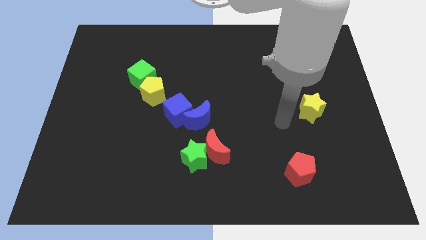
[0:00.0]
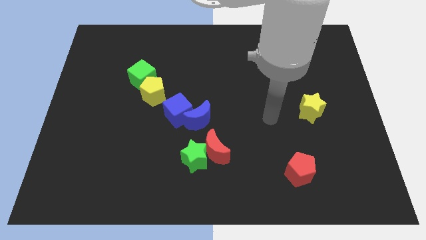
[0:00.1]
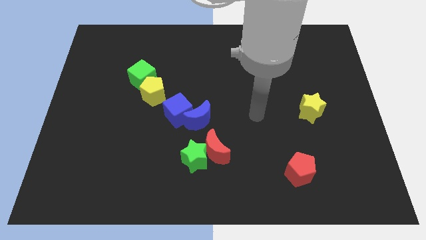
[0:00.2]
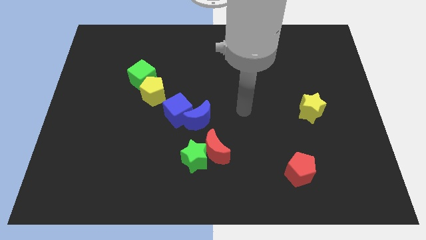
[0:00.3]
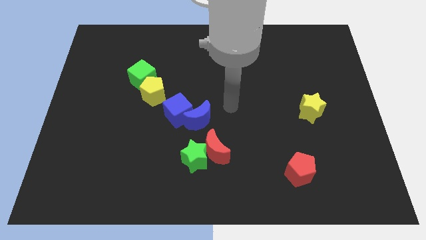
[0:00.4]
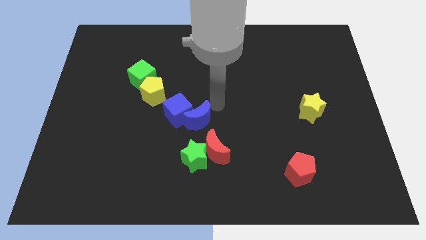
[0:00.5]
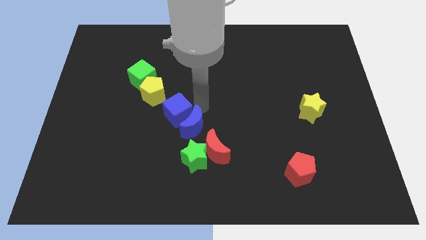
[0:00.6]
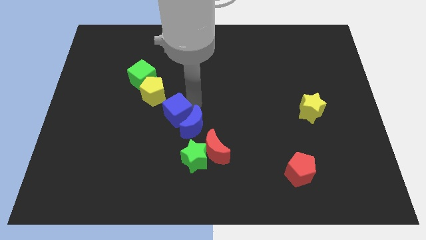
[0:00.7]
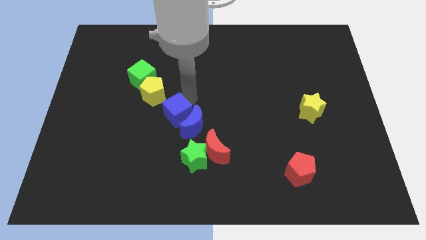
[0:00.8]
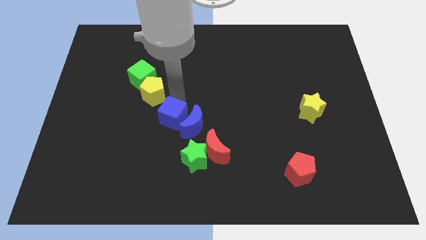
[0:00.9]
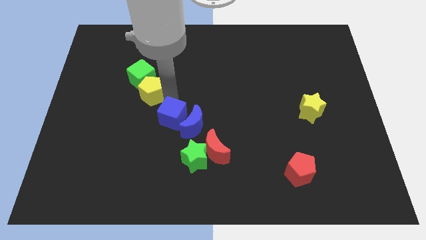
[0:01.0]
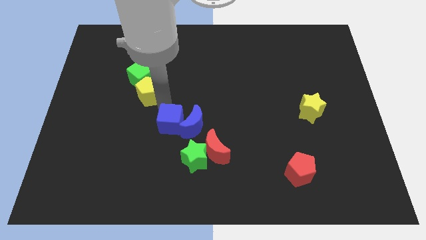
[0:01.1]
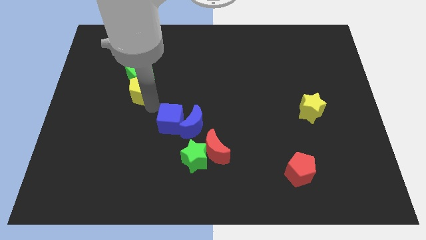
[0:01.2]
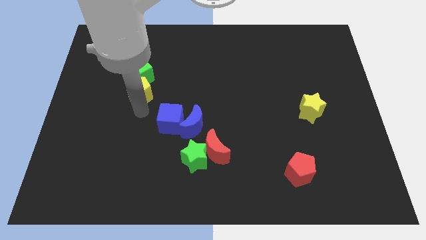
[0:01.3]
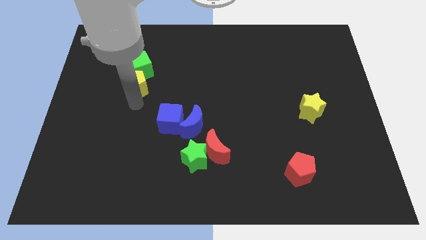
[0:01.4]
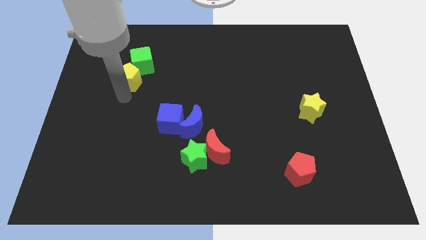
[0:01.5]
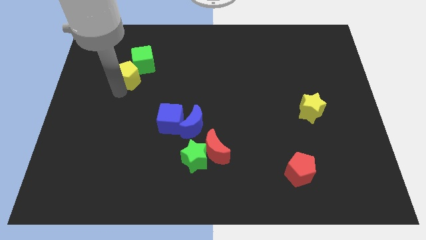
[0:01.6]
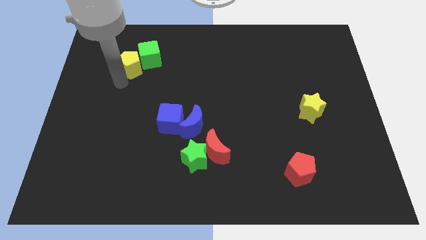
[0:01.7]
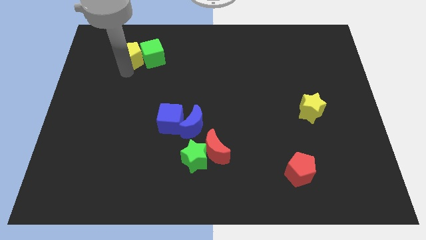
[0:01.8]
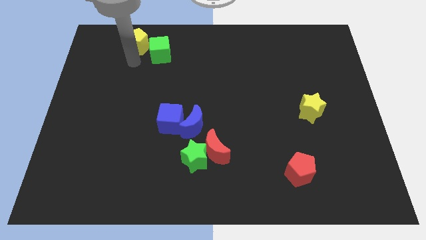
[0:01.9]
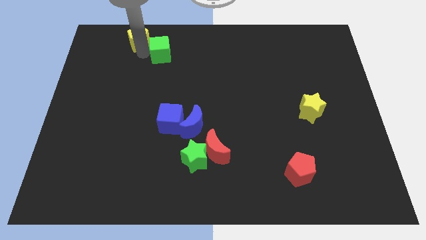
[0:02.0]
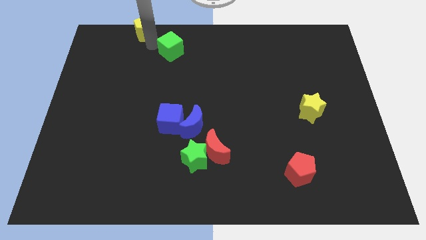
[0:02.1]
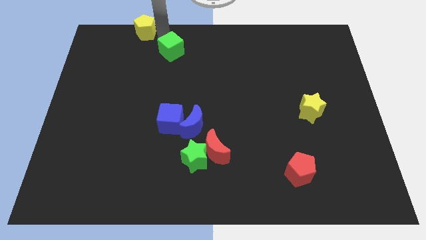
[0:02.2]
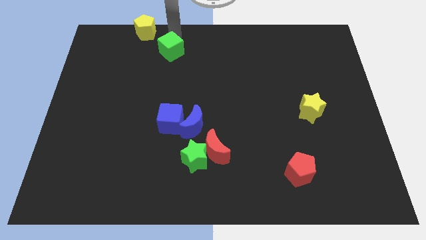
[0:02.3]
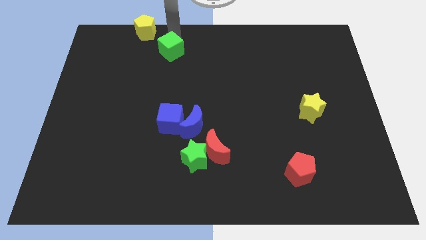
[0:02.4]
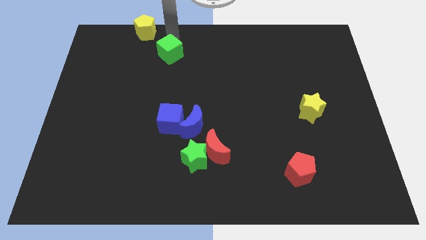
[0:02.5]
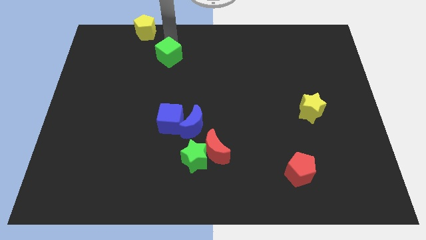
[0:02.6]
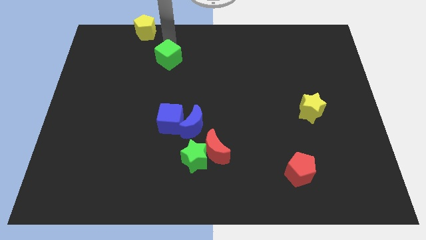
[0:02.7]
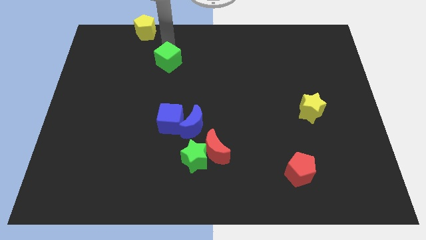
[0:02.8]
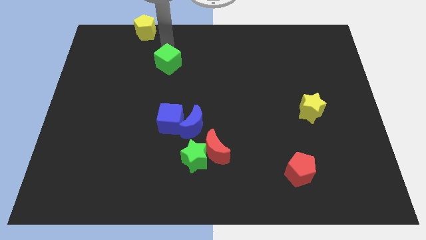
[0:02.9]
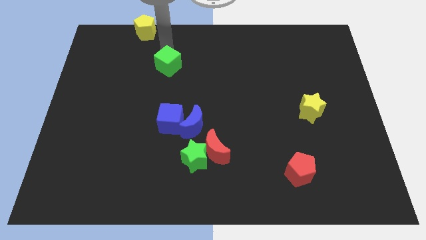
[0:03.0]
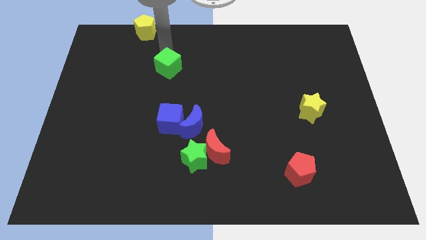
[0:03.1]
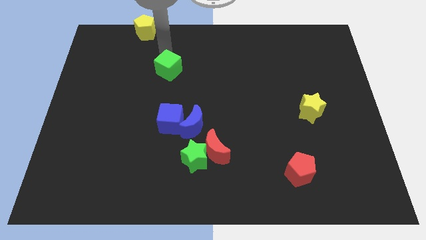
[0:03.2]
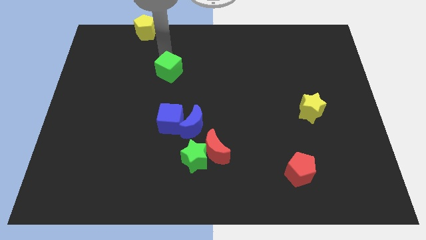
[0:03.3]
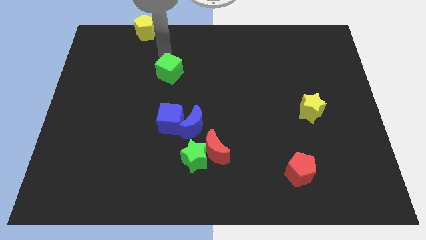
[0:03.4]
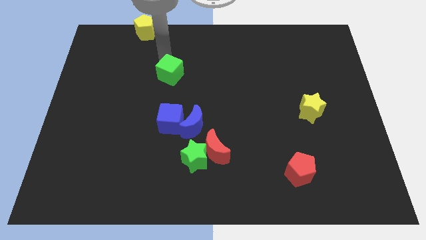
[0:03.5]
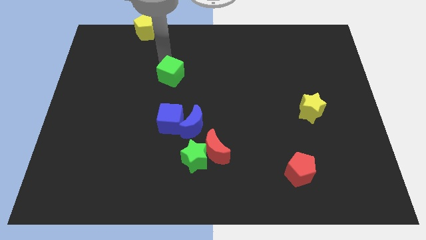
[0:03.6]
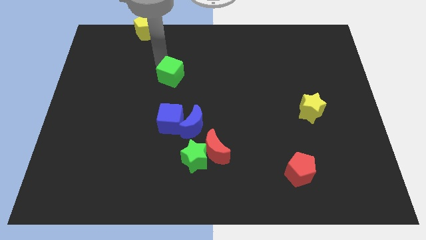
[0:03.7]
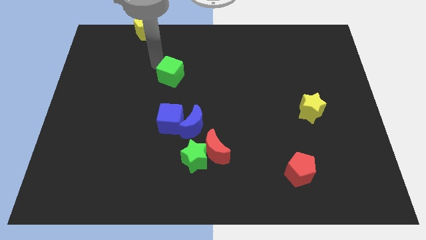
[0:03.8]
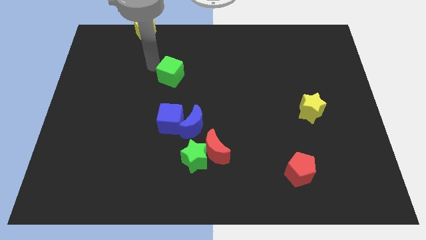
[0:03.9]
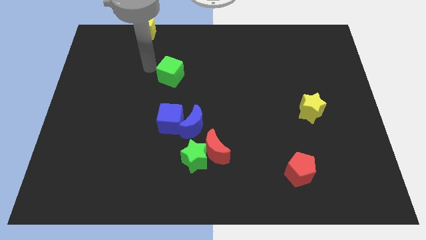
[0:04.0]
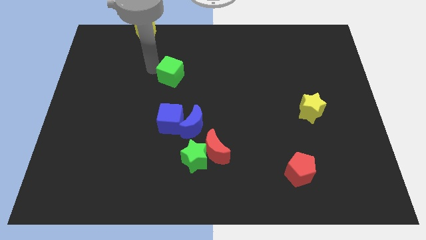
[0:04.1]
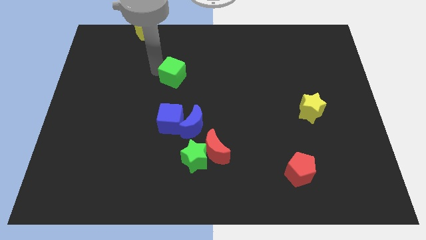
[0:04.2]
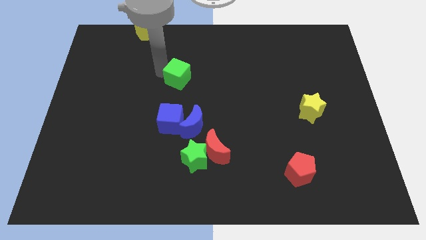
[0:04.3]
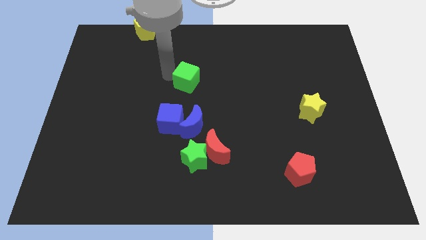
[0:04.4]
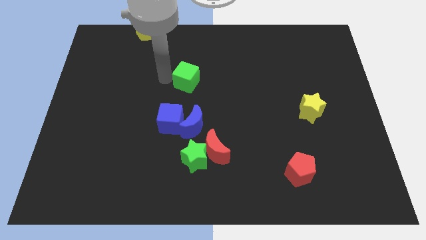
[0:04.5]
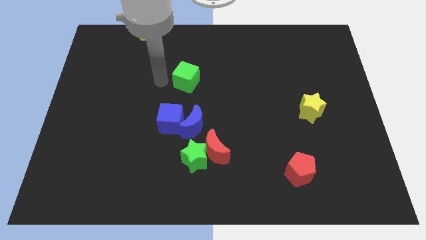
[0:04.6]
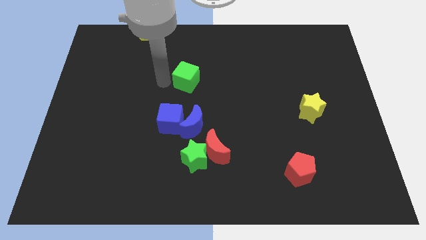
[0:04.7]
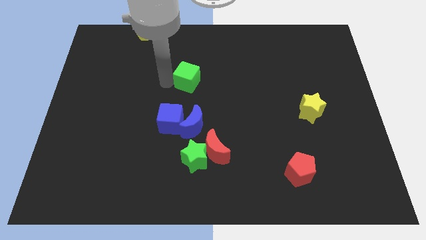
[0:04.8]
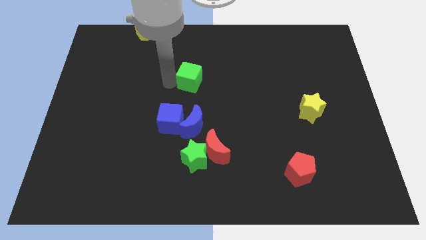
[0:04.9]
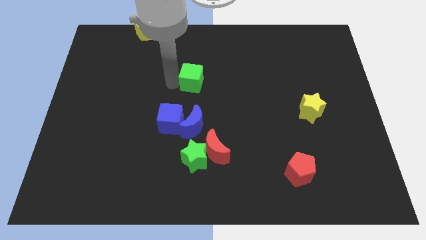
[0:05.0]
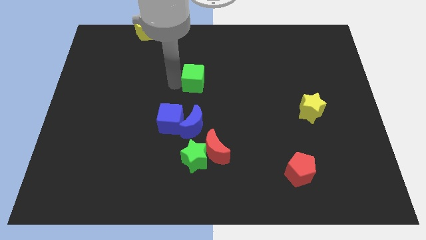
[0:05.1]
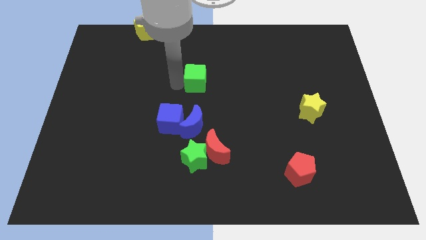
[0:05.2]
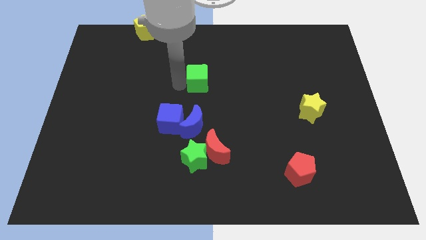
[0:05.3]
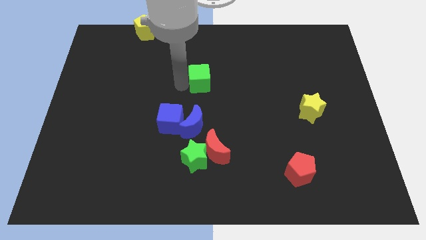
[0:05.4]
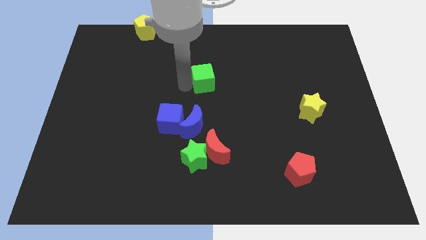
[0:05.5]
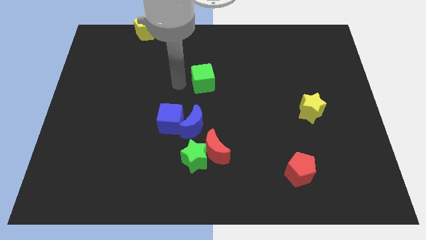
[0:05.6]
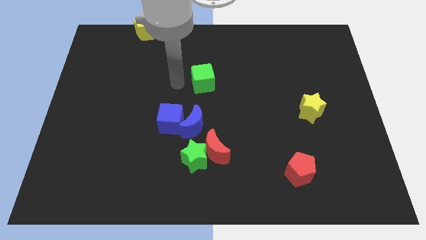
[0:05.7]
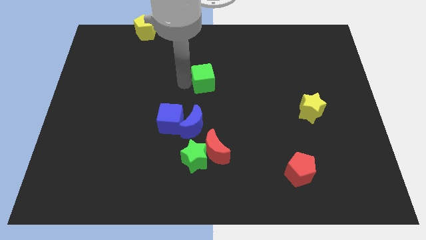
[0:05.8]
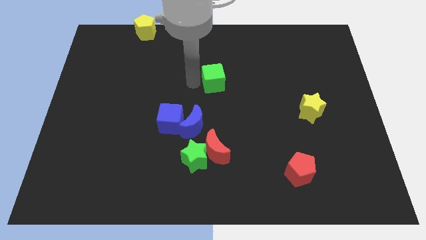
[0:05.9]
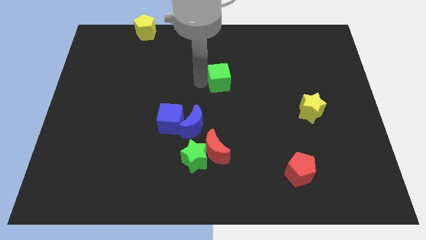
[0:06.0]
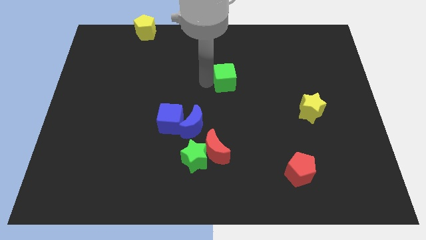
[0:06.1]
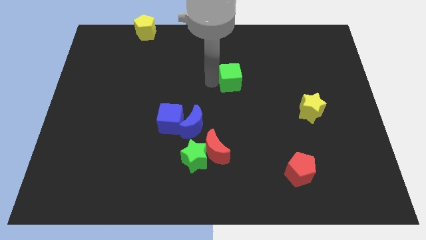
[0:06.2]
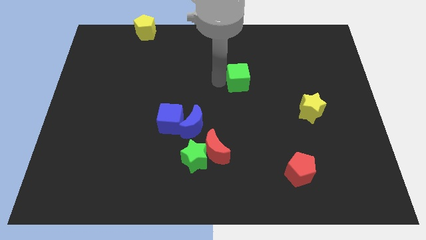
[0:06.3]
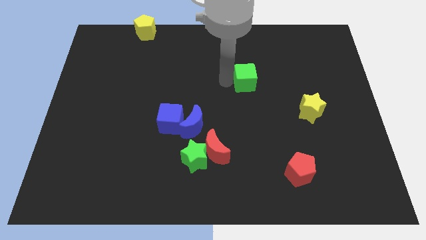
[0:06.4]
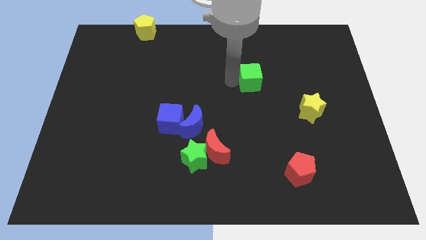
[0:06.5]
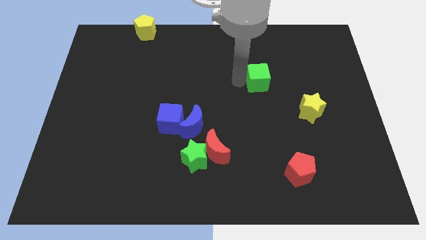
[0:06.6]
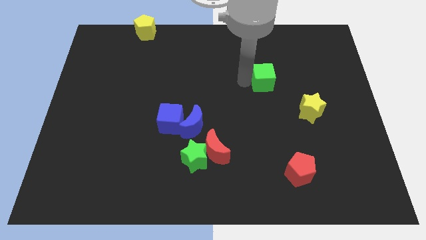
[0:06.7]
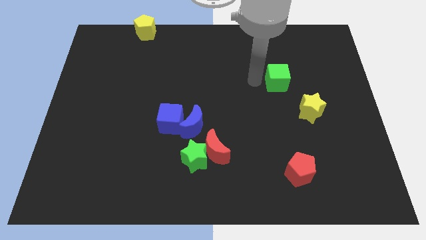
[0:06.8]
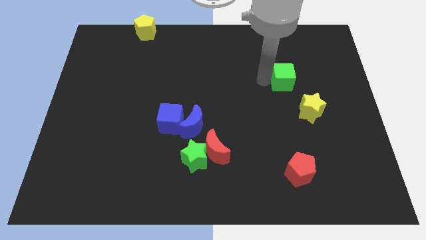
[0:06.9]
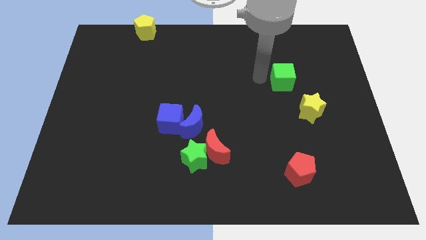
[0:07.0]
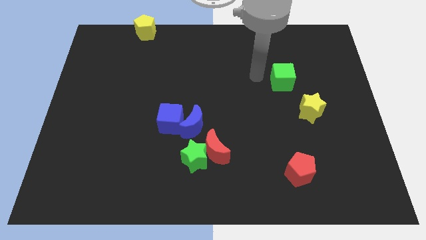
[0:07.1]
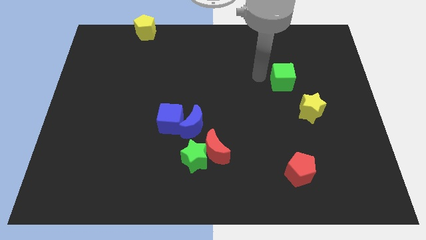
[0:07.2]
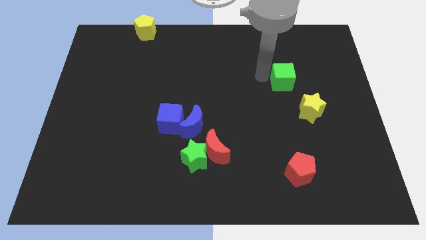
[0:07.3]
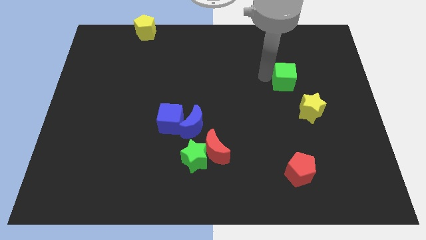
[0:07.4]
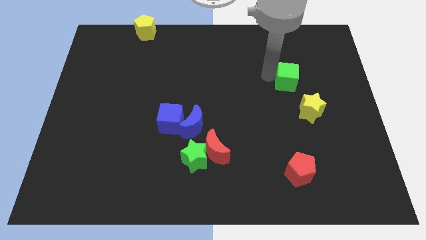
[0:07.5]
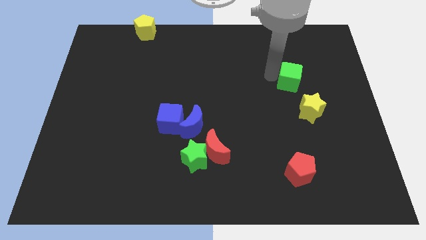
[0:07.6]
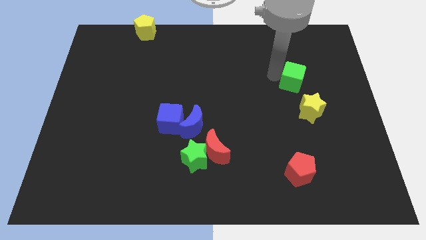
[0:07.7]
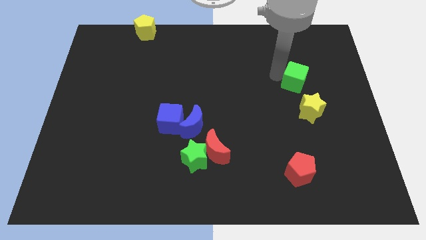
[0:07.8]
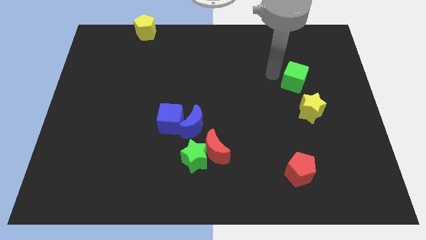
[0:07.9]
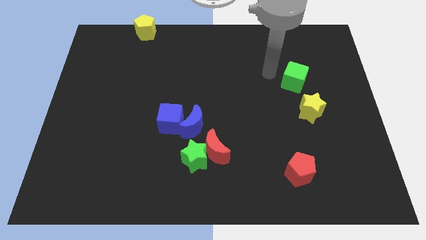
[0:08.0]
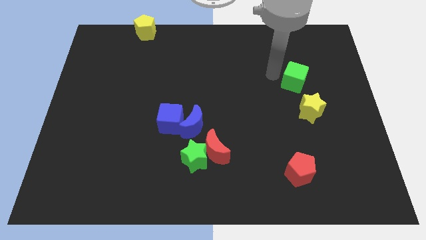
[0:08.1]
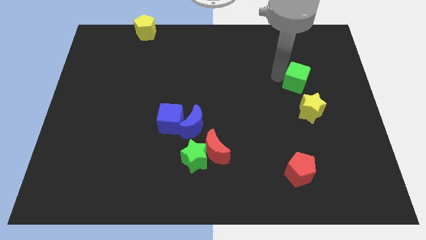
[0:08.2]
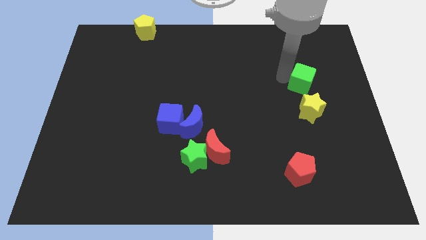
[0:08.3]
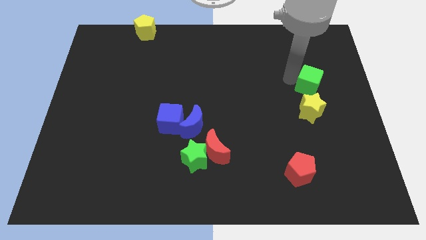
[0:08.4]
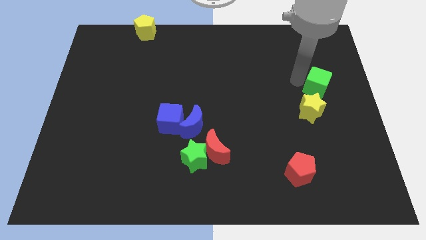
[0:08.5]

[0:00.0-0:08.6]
slide the green cube to the top right side of the yellow star
